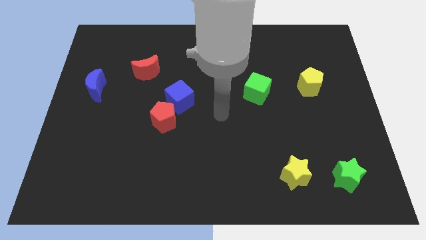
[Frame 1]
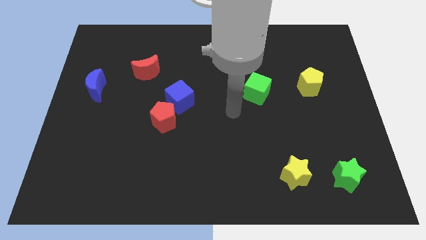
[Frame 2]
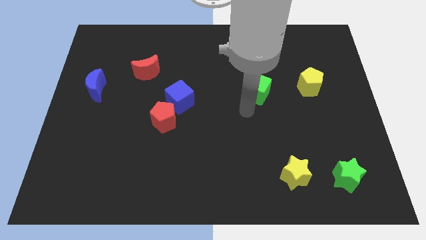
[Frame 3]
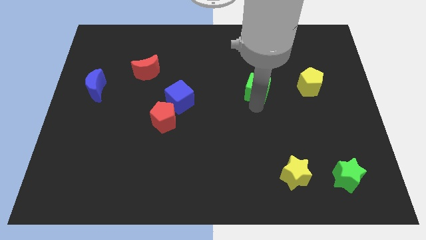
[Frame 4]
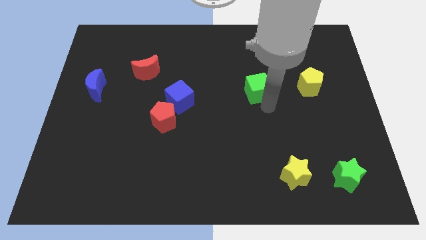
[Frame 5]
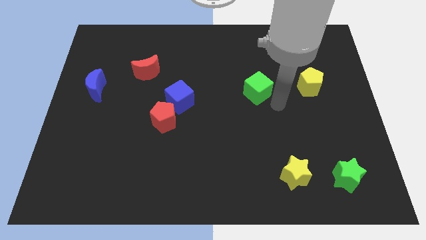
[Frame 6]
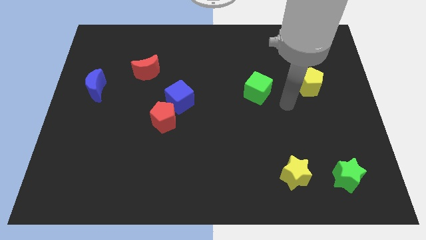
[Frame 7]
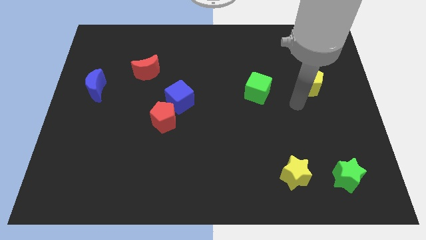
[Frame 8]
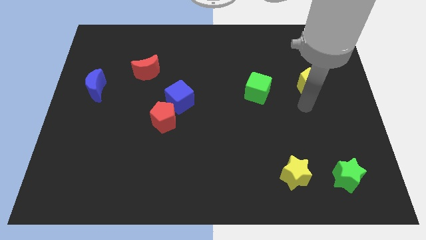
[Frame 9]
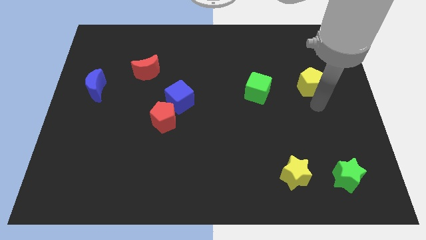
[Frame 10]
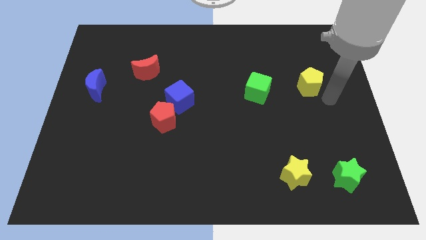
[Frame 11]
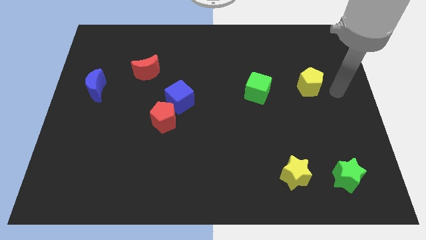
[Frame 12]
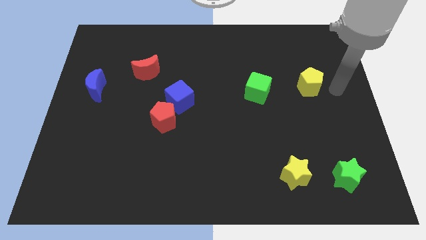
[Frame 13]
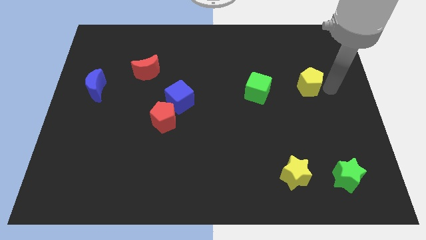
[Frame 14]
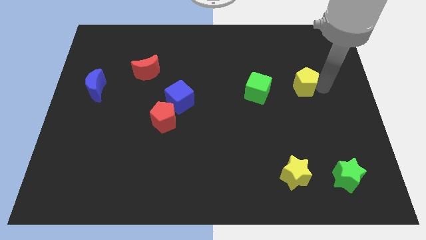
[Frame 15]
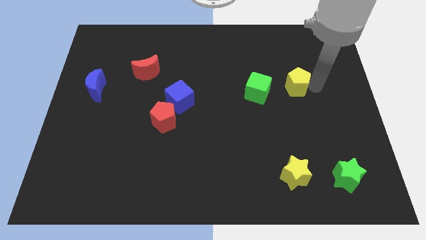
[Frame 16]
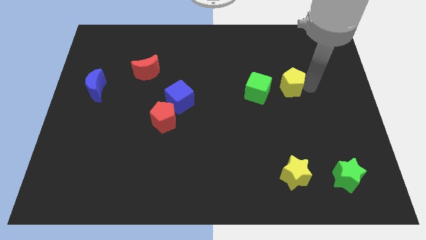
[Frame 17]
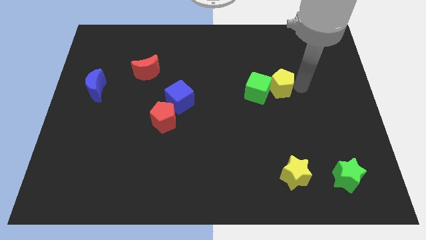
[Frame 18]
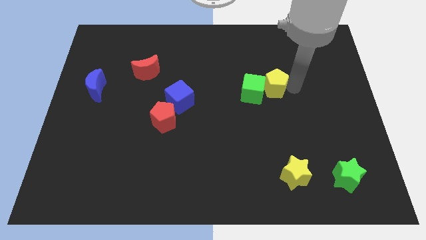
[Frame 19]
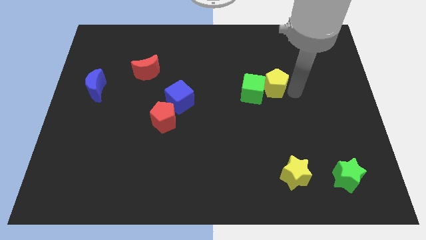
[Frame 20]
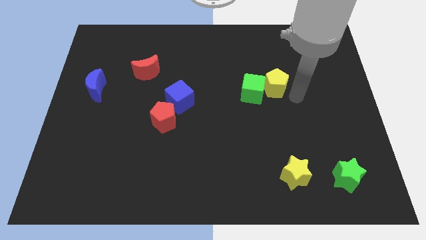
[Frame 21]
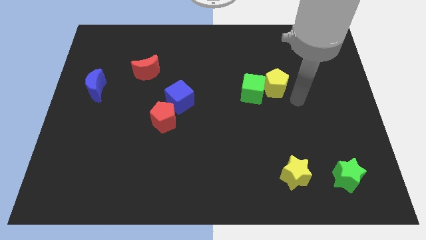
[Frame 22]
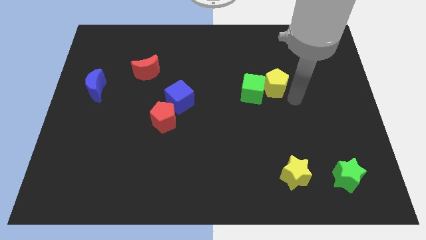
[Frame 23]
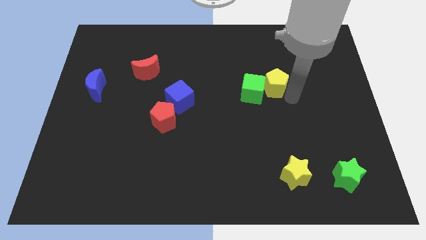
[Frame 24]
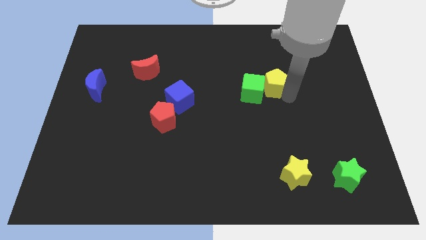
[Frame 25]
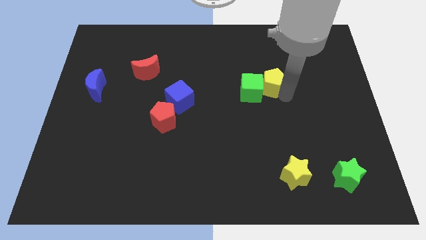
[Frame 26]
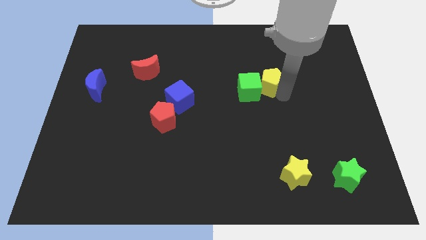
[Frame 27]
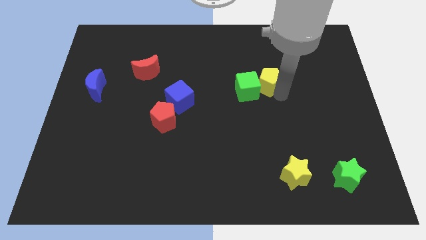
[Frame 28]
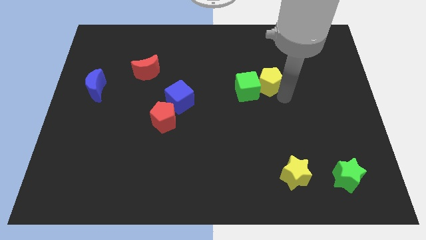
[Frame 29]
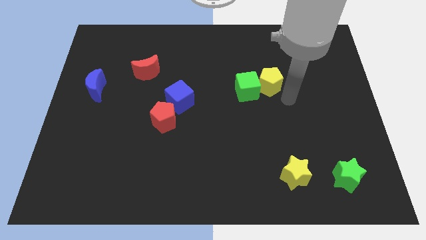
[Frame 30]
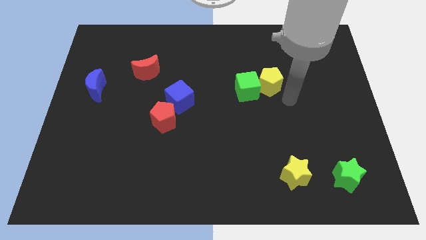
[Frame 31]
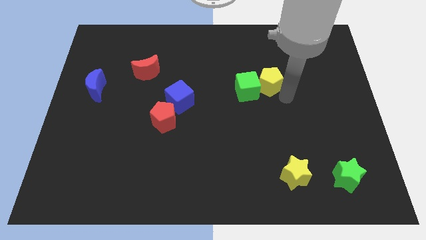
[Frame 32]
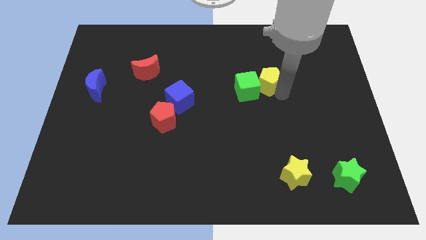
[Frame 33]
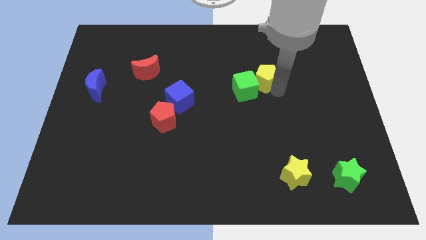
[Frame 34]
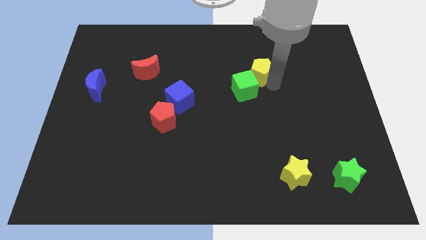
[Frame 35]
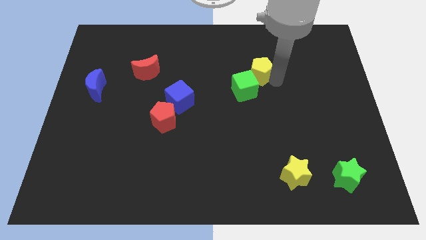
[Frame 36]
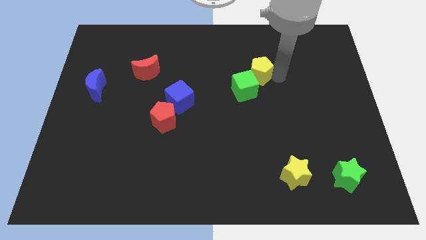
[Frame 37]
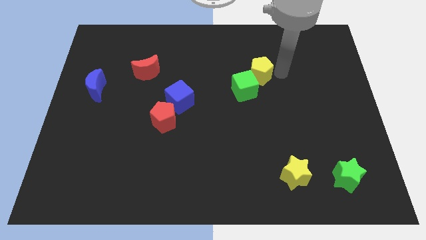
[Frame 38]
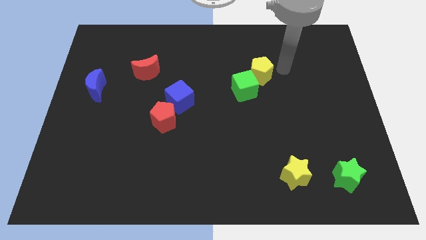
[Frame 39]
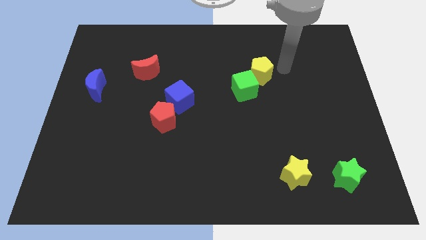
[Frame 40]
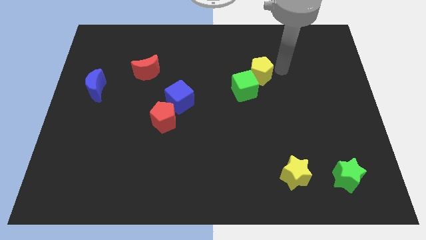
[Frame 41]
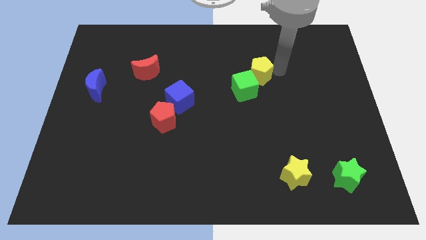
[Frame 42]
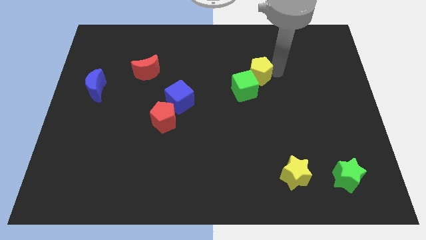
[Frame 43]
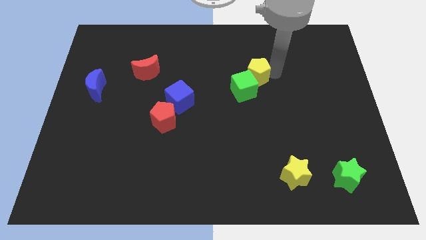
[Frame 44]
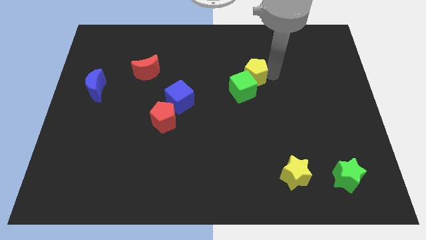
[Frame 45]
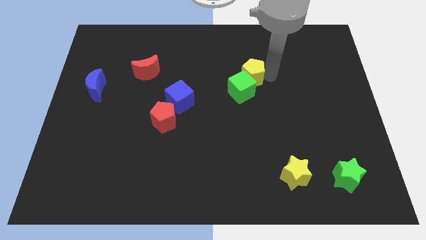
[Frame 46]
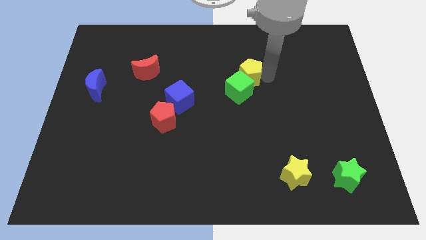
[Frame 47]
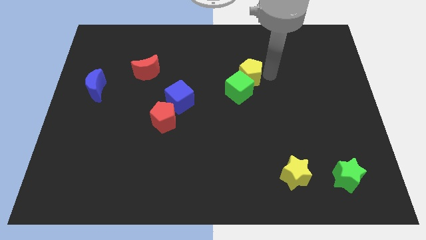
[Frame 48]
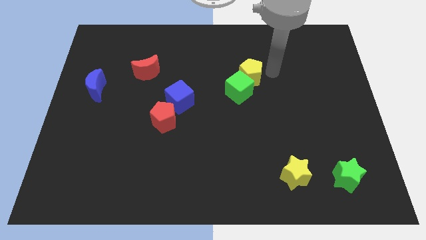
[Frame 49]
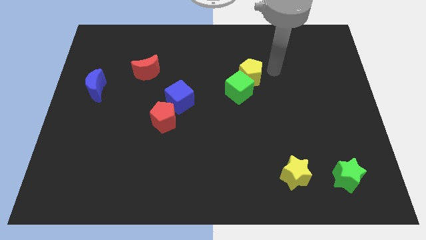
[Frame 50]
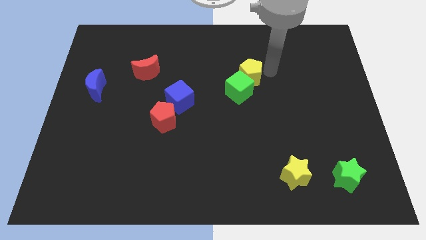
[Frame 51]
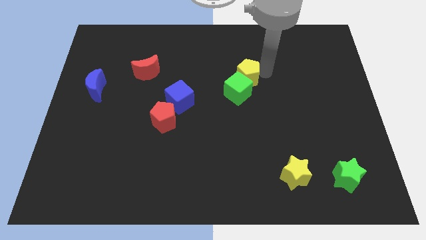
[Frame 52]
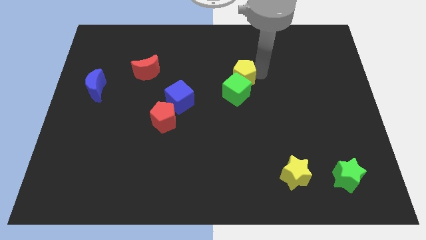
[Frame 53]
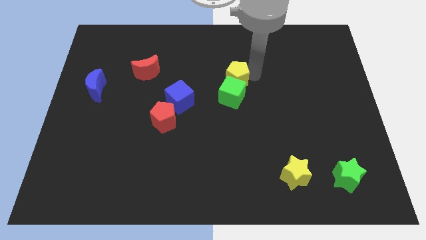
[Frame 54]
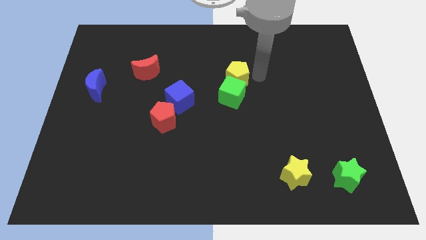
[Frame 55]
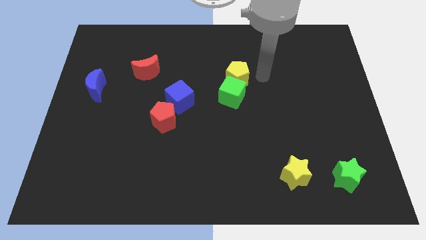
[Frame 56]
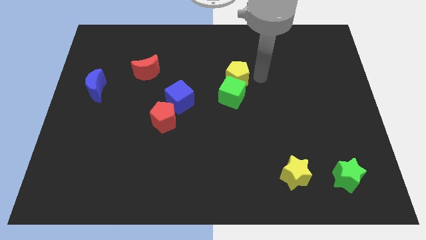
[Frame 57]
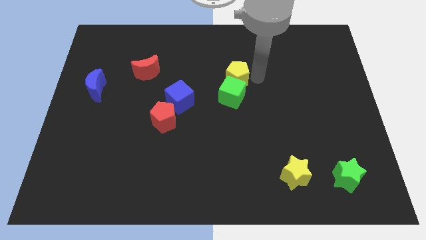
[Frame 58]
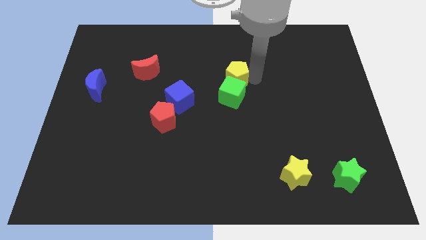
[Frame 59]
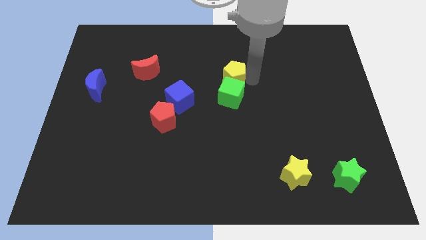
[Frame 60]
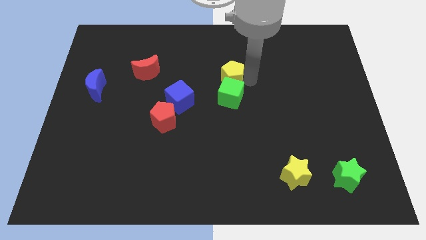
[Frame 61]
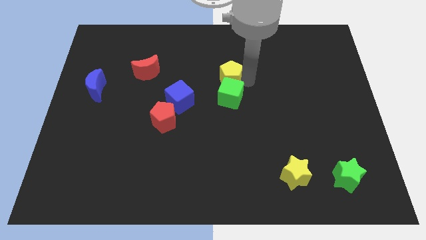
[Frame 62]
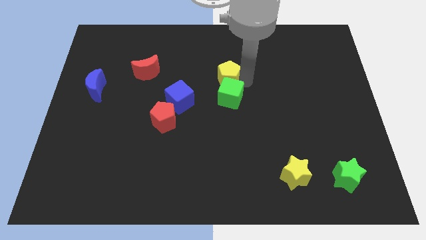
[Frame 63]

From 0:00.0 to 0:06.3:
push the yellow pentagon left

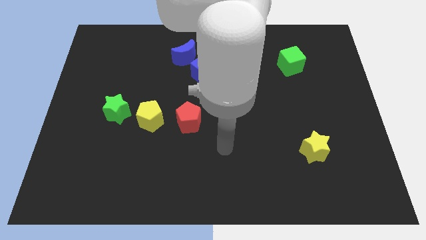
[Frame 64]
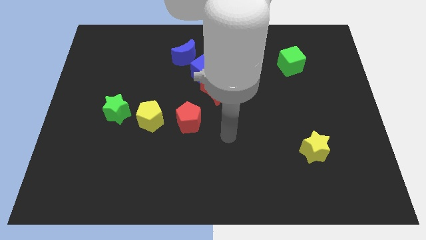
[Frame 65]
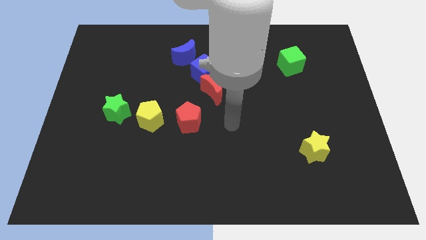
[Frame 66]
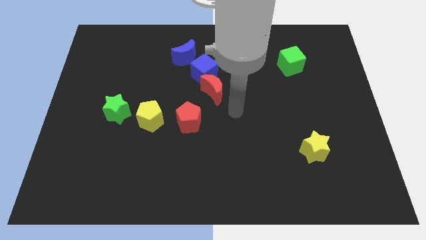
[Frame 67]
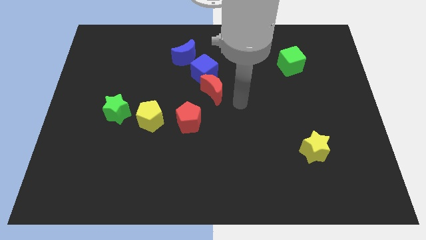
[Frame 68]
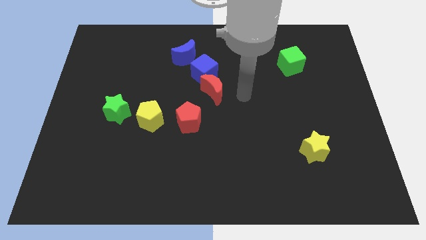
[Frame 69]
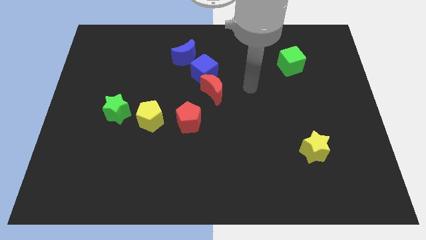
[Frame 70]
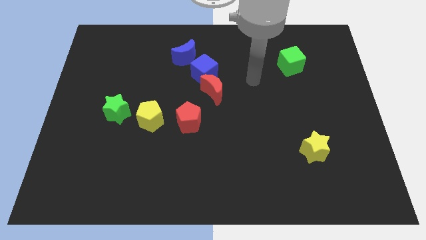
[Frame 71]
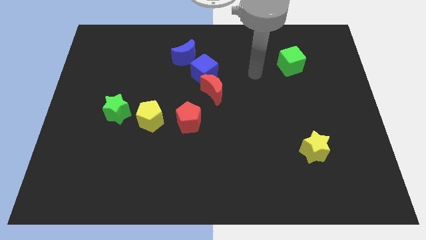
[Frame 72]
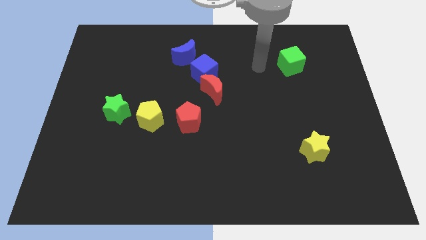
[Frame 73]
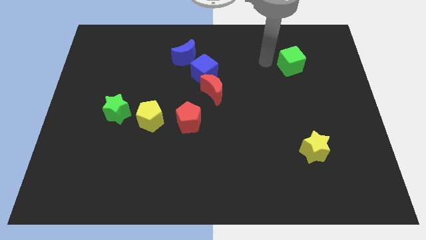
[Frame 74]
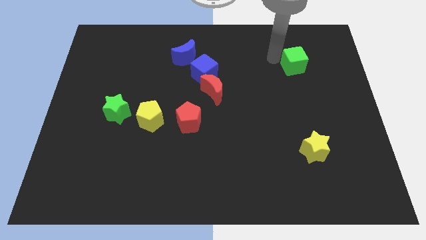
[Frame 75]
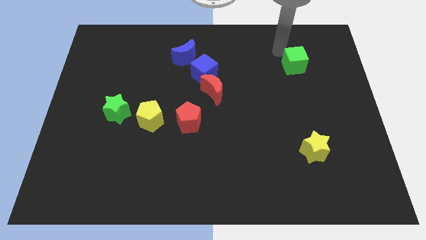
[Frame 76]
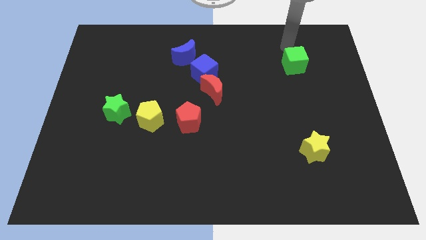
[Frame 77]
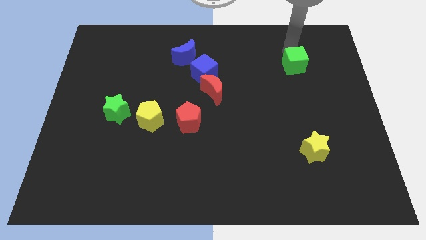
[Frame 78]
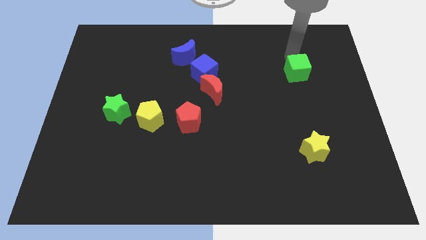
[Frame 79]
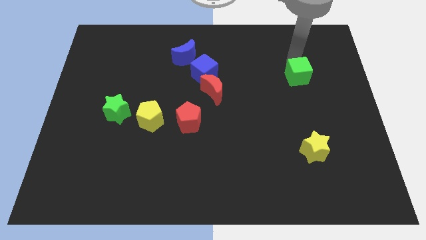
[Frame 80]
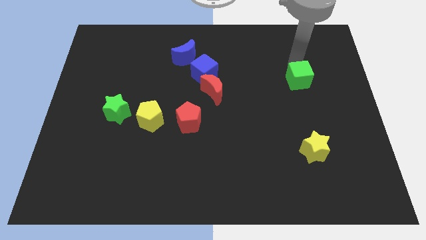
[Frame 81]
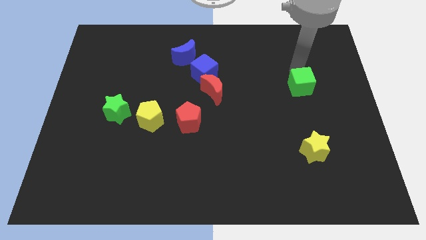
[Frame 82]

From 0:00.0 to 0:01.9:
slightly move the green cube down
